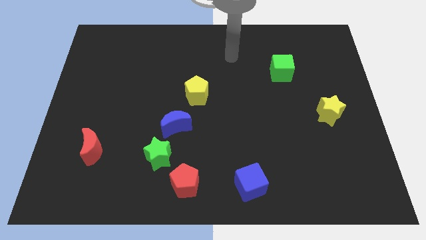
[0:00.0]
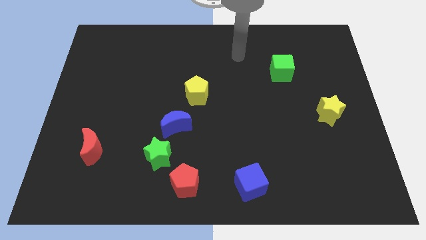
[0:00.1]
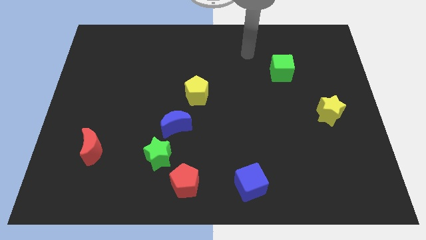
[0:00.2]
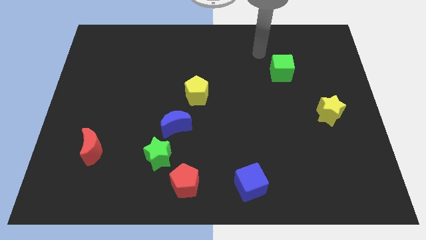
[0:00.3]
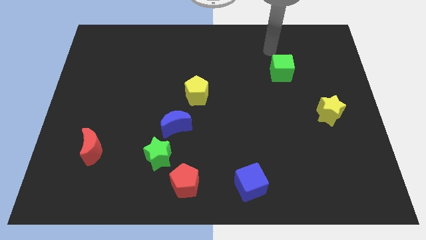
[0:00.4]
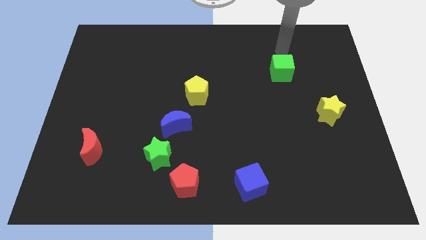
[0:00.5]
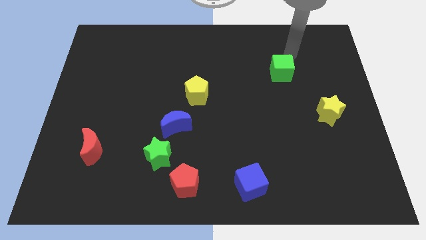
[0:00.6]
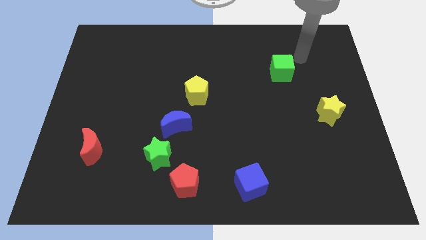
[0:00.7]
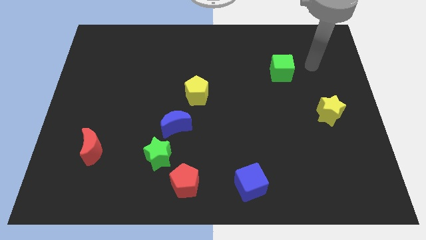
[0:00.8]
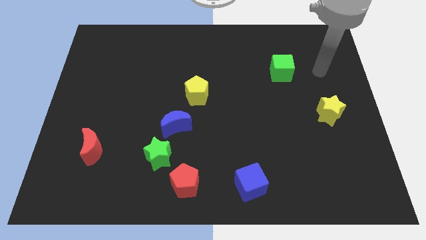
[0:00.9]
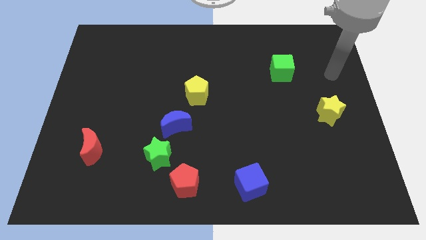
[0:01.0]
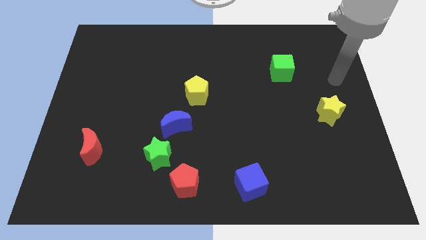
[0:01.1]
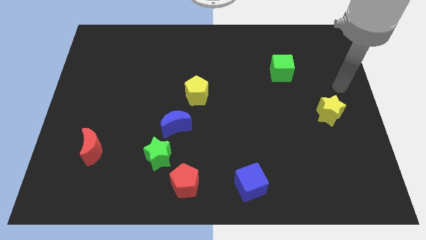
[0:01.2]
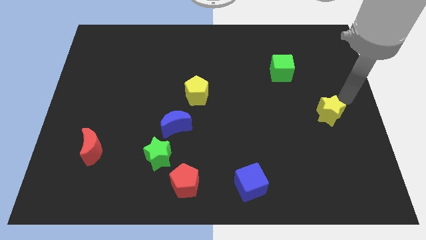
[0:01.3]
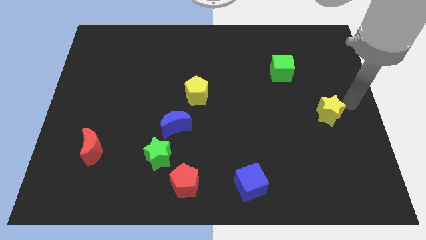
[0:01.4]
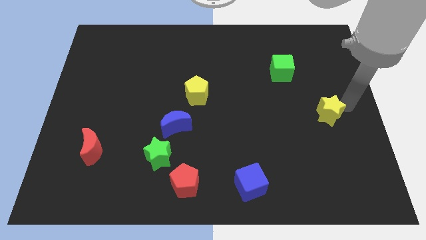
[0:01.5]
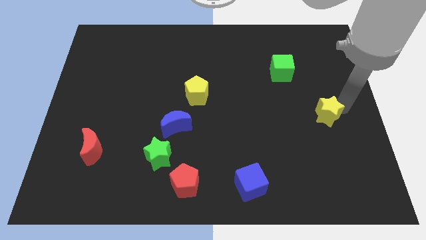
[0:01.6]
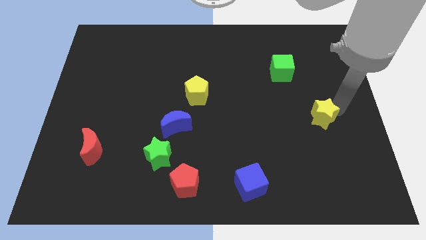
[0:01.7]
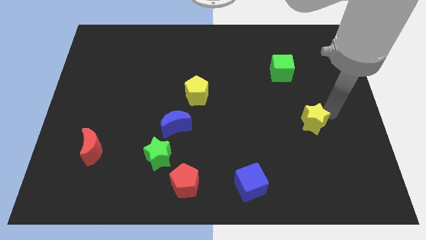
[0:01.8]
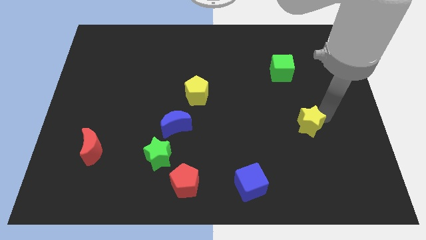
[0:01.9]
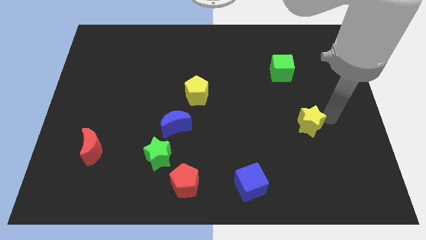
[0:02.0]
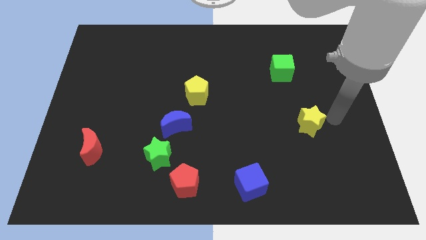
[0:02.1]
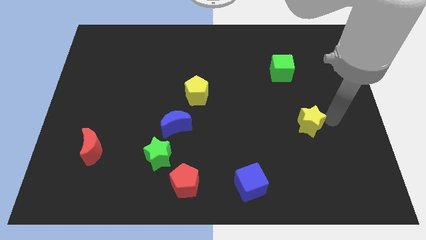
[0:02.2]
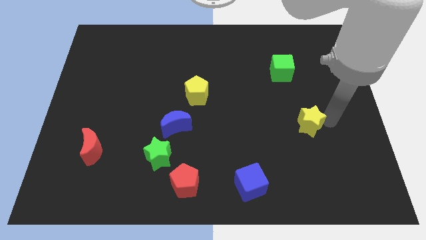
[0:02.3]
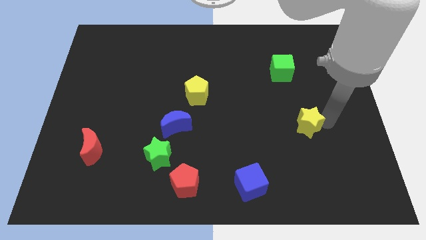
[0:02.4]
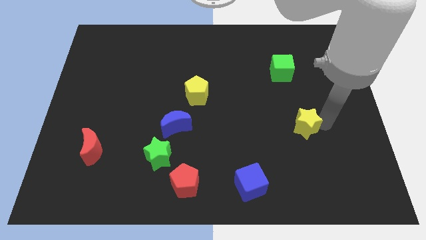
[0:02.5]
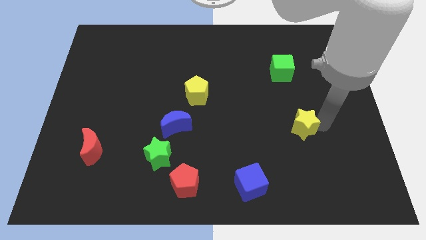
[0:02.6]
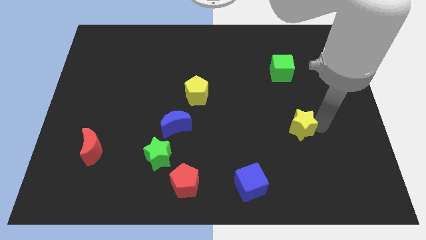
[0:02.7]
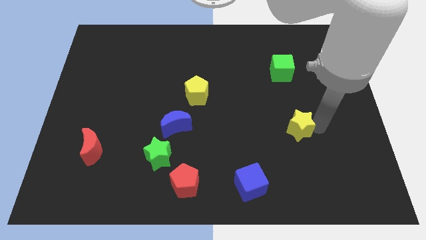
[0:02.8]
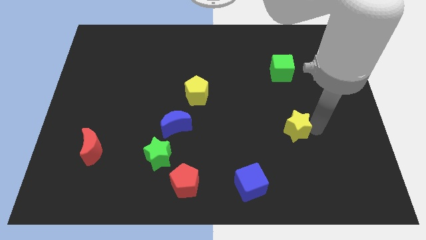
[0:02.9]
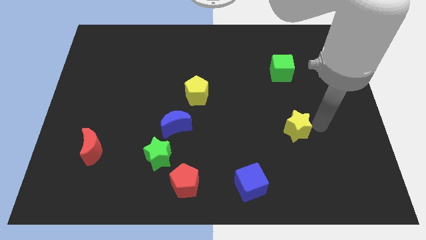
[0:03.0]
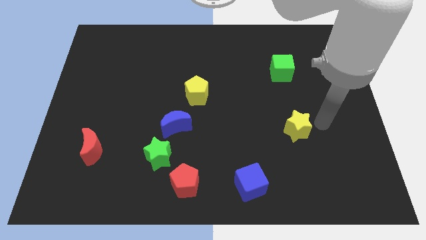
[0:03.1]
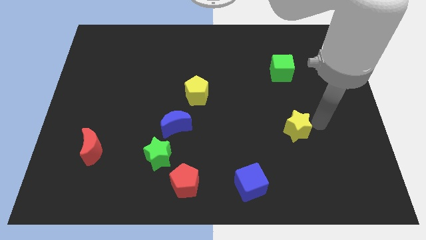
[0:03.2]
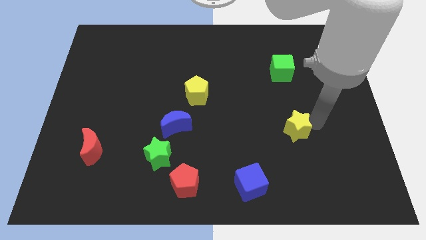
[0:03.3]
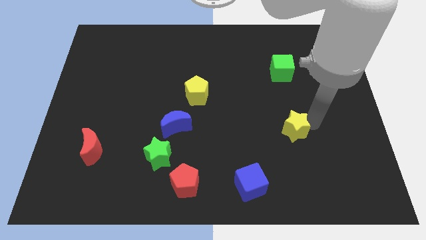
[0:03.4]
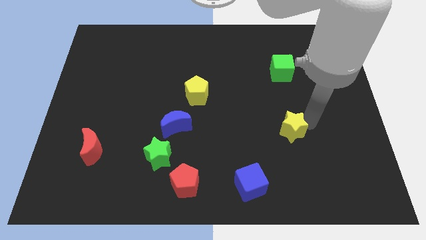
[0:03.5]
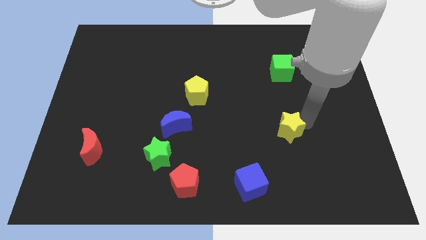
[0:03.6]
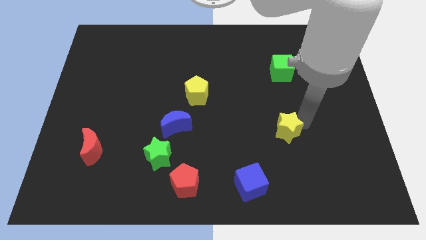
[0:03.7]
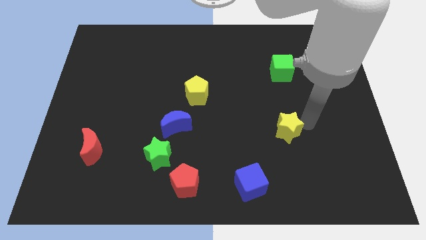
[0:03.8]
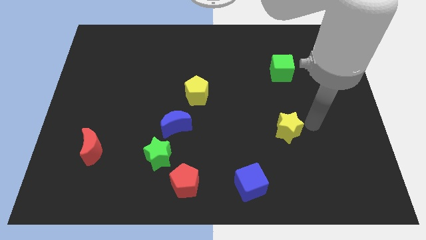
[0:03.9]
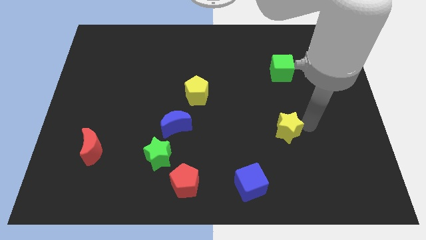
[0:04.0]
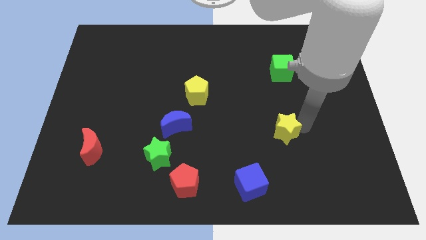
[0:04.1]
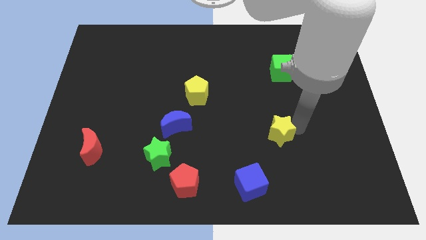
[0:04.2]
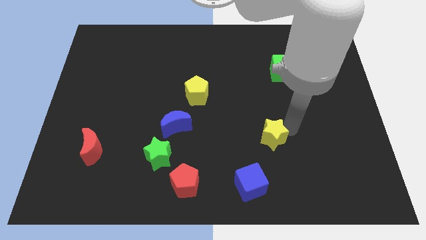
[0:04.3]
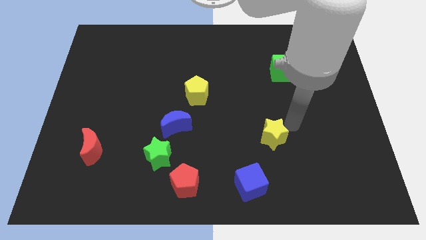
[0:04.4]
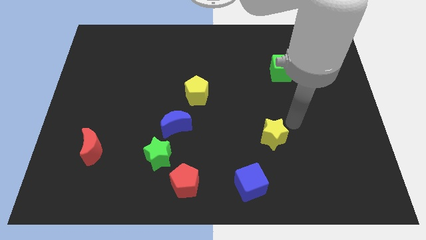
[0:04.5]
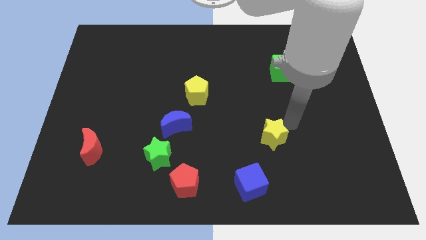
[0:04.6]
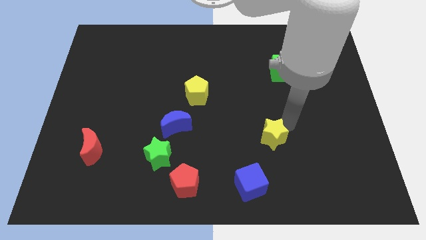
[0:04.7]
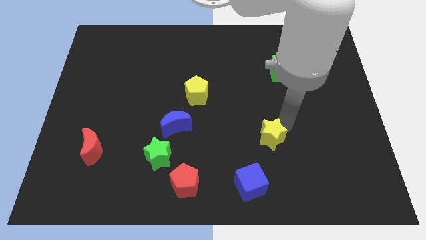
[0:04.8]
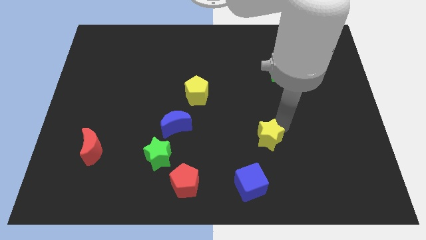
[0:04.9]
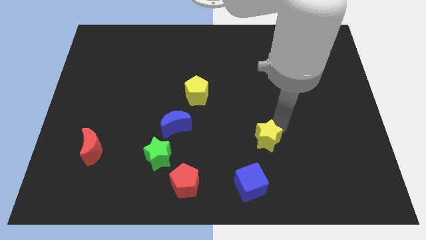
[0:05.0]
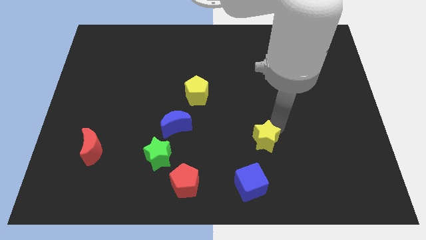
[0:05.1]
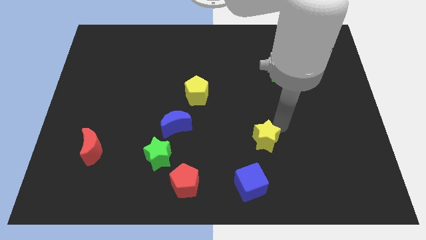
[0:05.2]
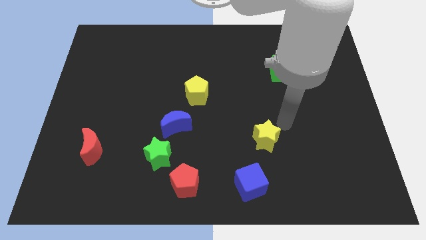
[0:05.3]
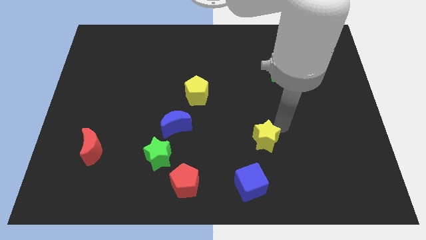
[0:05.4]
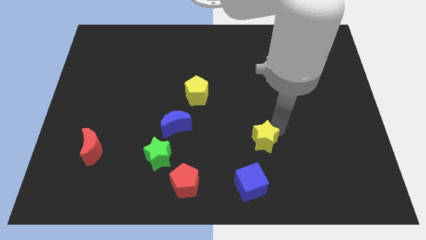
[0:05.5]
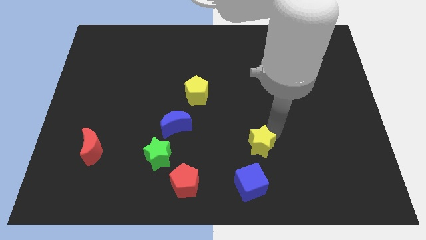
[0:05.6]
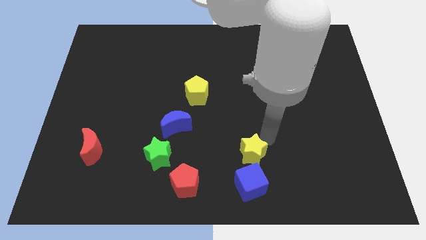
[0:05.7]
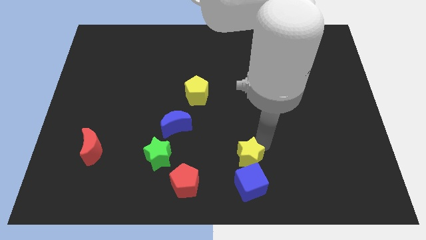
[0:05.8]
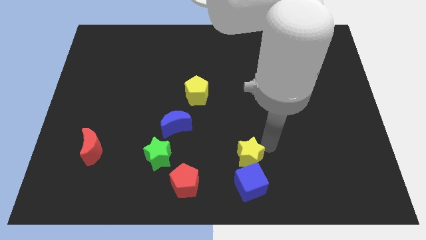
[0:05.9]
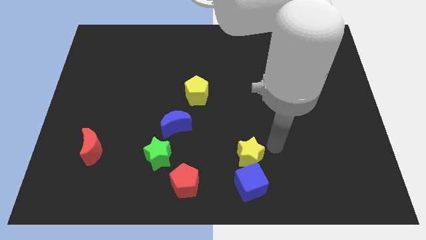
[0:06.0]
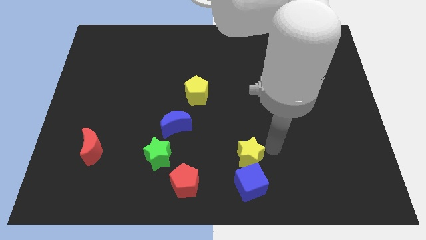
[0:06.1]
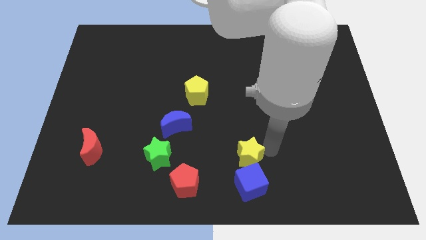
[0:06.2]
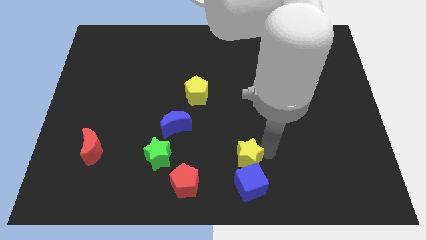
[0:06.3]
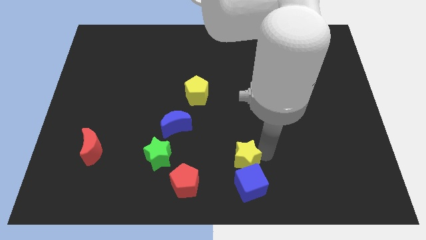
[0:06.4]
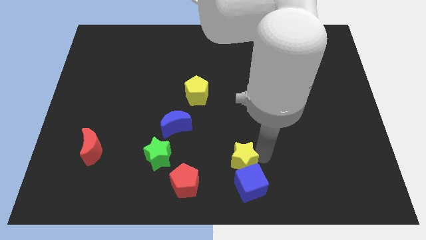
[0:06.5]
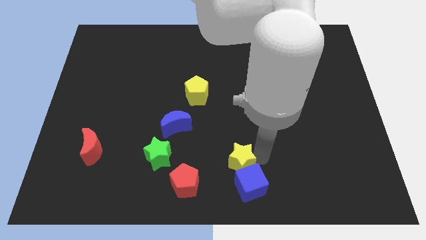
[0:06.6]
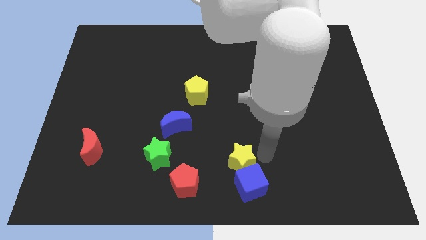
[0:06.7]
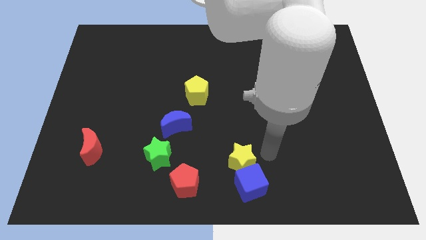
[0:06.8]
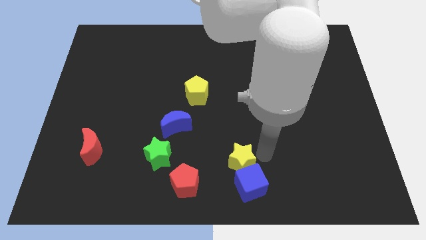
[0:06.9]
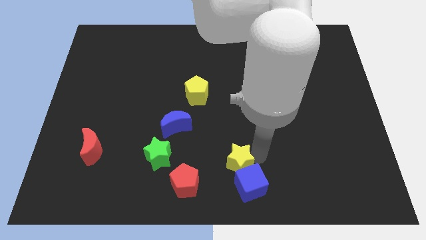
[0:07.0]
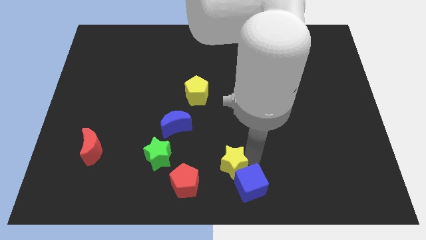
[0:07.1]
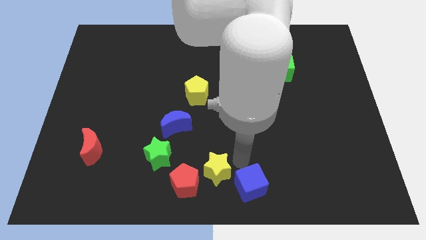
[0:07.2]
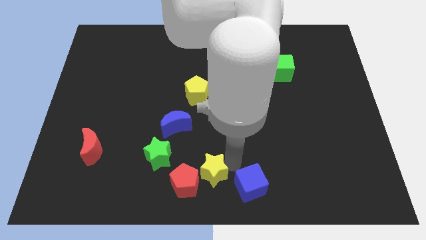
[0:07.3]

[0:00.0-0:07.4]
put the yellow star towards the red pentagon

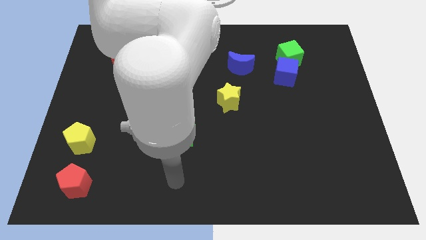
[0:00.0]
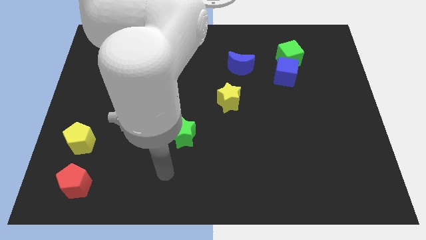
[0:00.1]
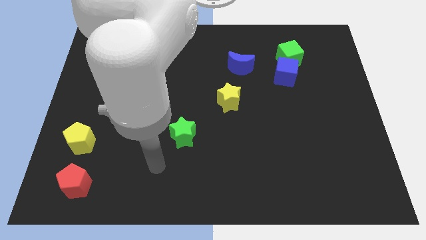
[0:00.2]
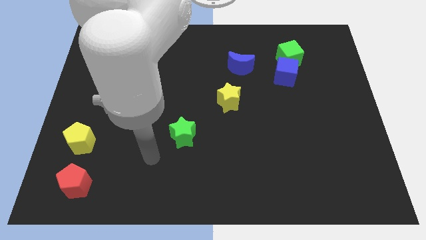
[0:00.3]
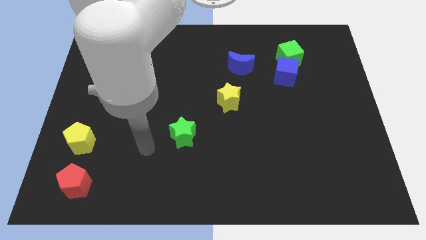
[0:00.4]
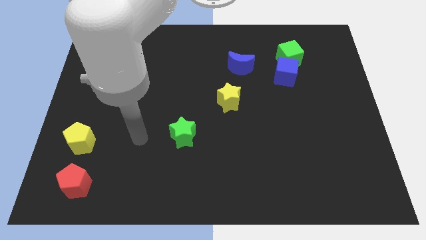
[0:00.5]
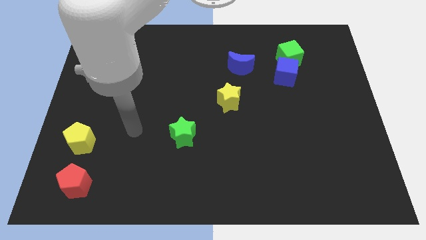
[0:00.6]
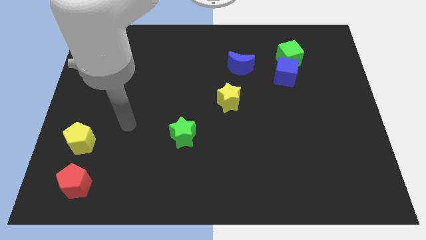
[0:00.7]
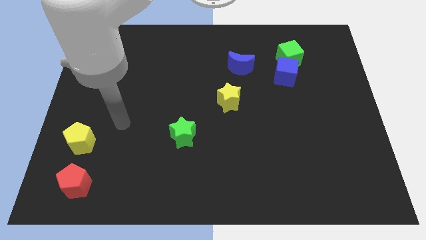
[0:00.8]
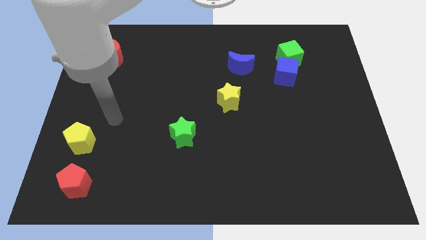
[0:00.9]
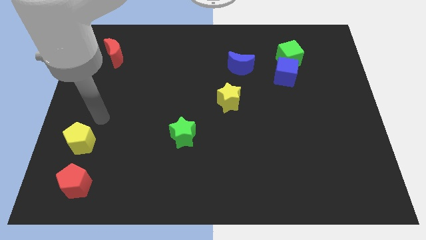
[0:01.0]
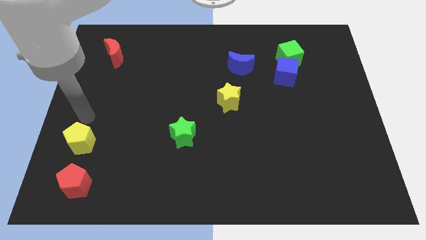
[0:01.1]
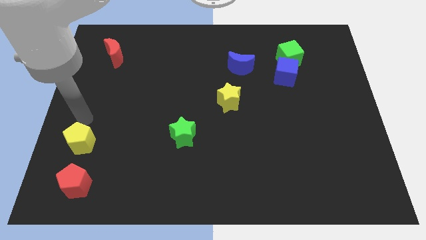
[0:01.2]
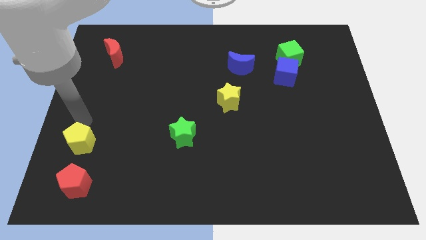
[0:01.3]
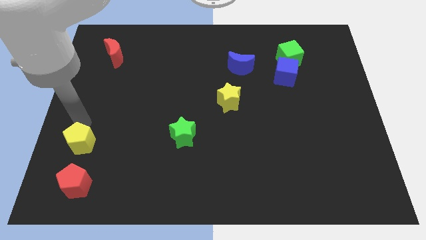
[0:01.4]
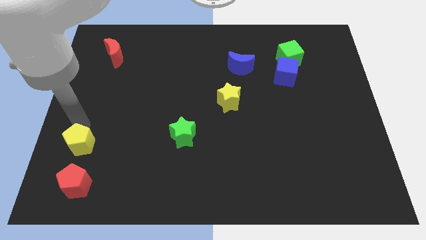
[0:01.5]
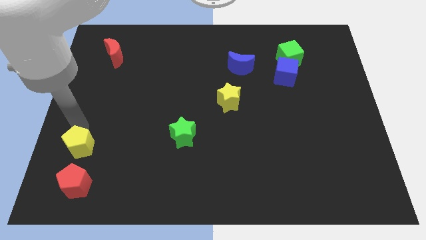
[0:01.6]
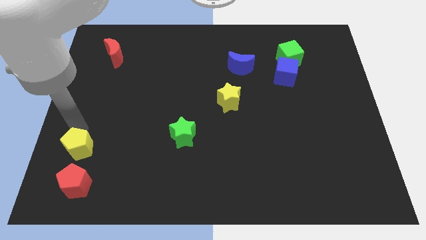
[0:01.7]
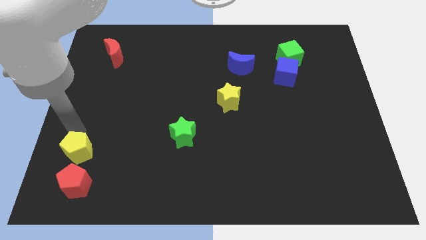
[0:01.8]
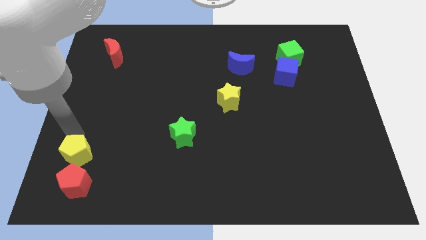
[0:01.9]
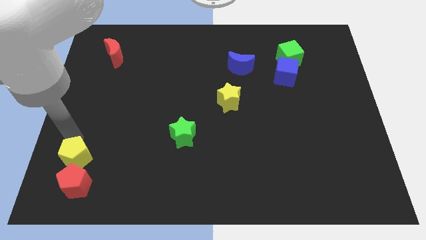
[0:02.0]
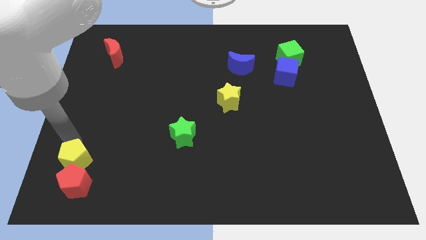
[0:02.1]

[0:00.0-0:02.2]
push the yellow pentagon close to the red pentagon
